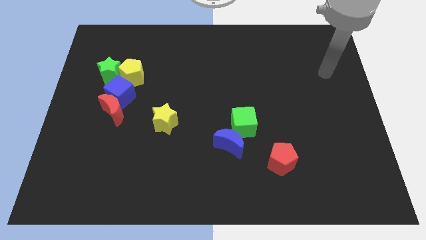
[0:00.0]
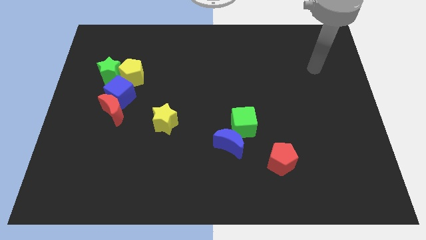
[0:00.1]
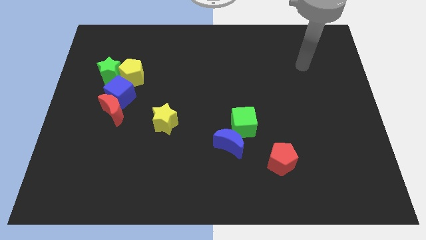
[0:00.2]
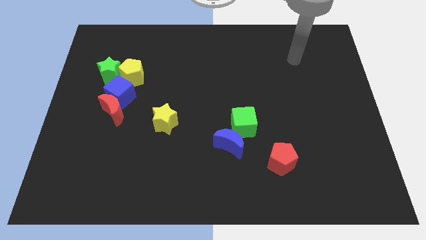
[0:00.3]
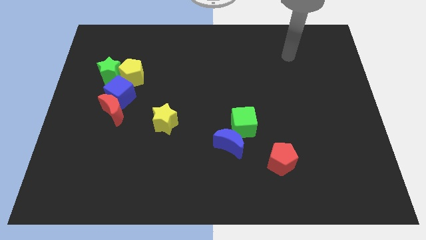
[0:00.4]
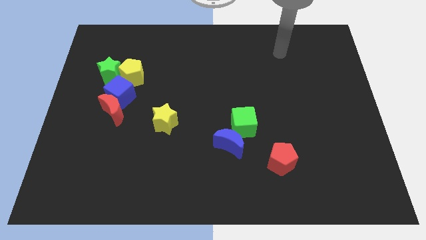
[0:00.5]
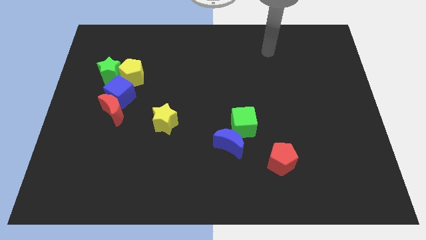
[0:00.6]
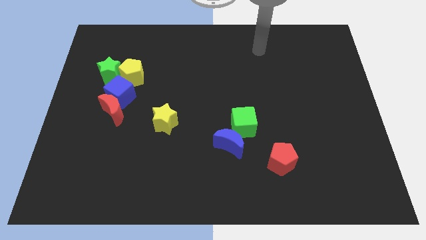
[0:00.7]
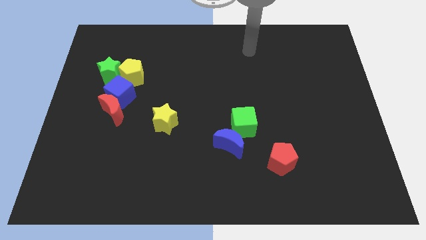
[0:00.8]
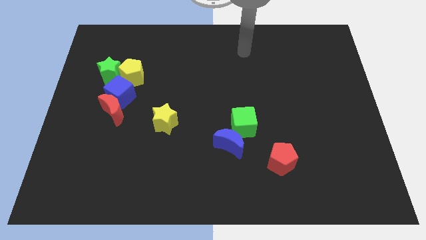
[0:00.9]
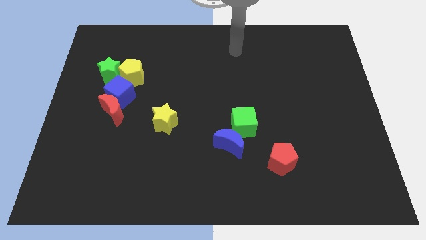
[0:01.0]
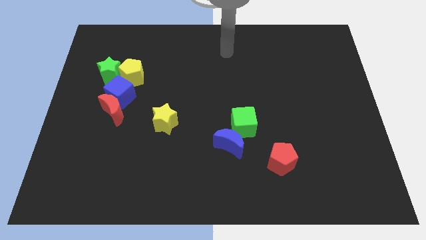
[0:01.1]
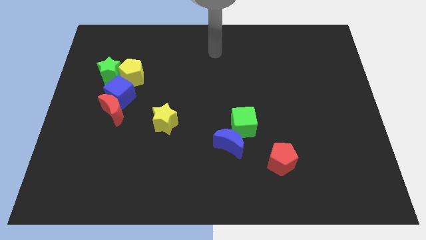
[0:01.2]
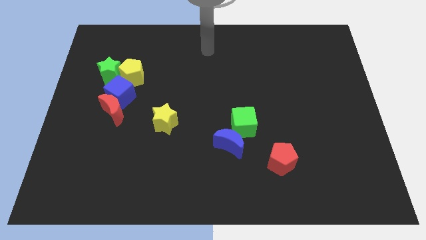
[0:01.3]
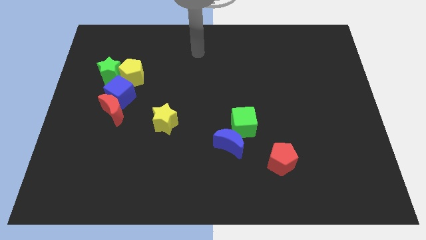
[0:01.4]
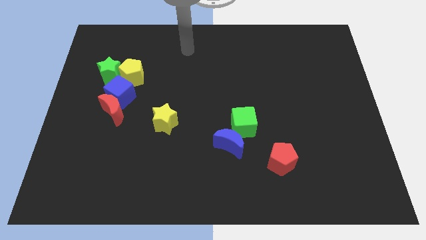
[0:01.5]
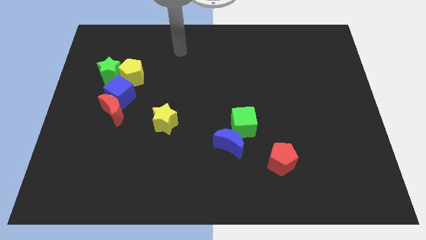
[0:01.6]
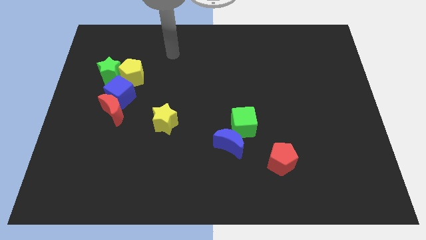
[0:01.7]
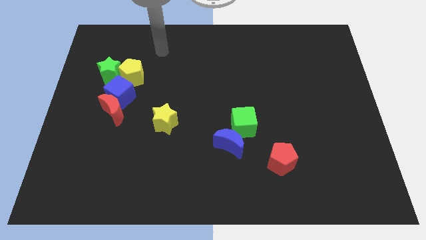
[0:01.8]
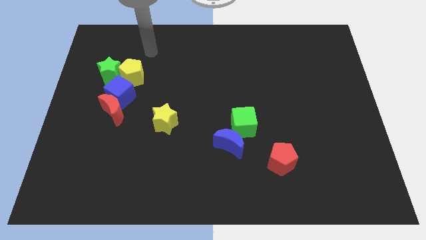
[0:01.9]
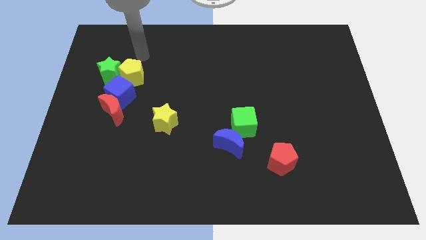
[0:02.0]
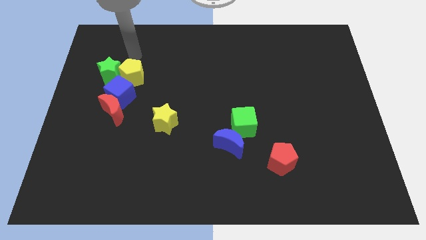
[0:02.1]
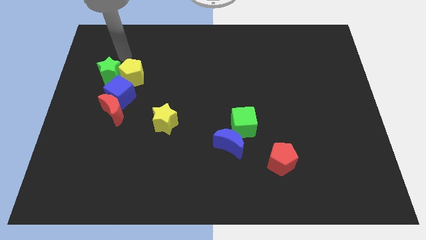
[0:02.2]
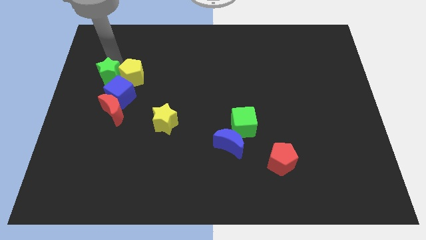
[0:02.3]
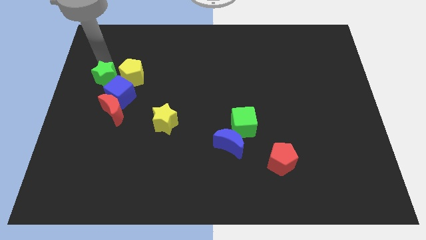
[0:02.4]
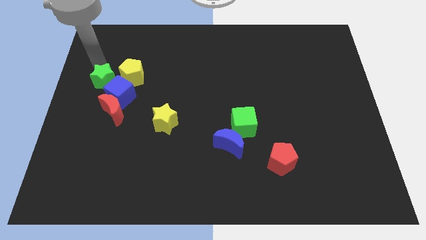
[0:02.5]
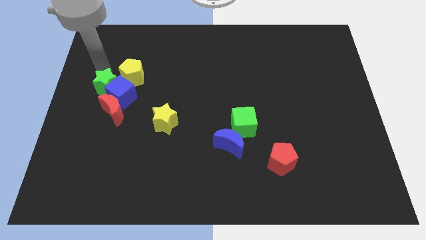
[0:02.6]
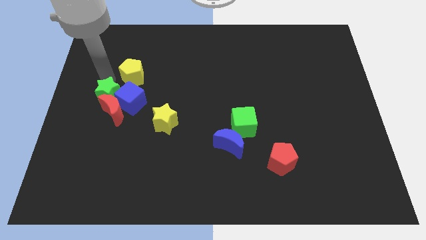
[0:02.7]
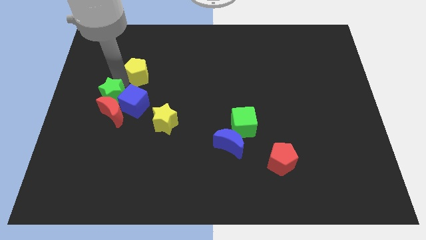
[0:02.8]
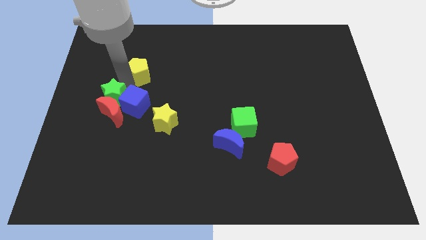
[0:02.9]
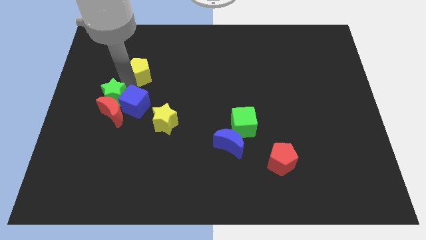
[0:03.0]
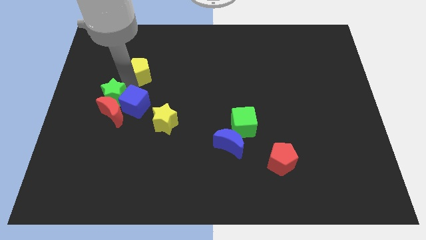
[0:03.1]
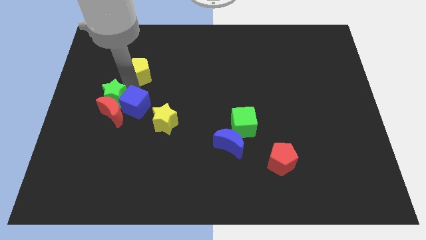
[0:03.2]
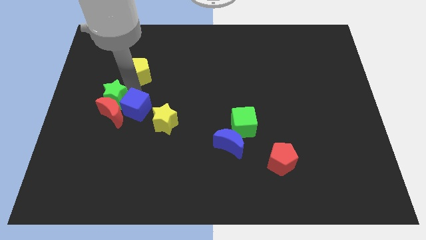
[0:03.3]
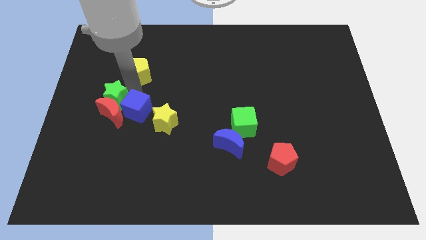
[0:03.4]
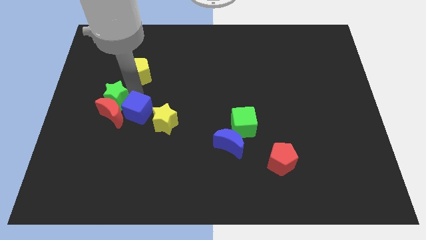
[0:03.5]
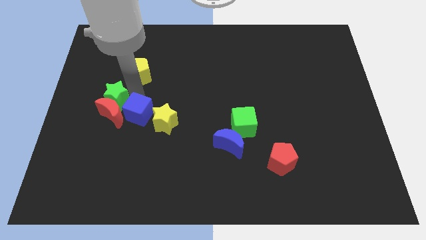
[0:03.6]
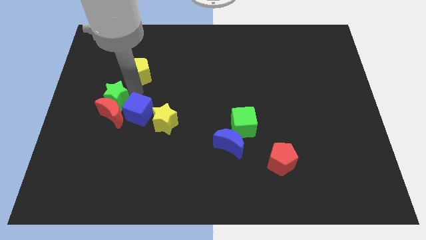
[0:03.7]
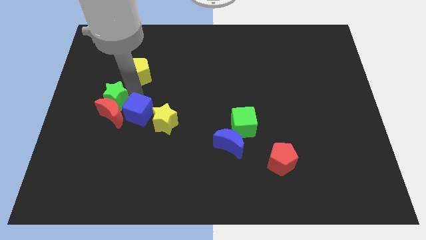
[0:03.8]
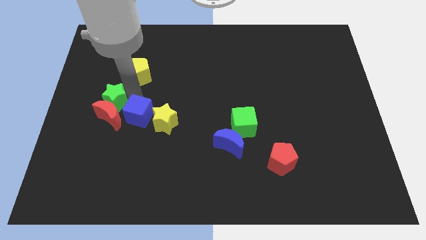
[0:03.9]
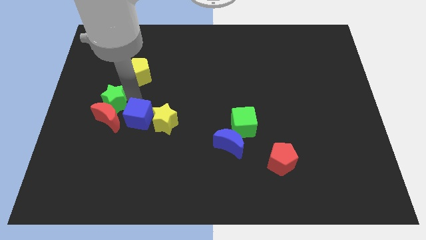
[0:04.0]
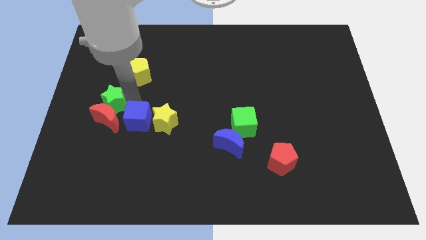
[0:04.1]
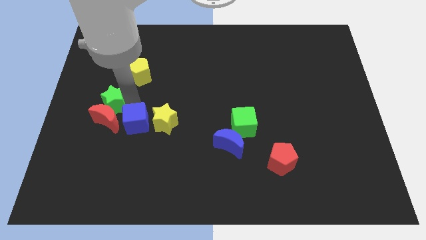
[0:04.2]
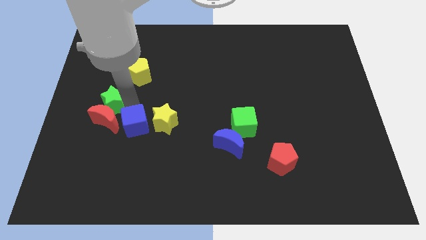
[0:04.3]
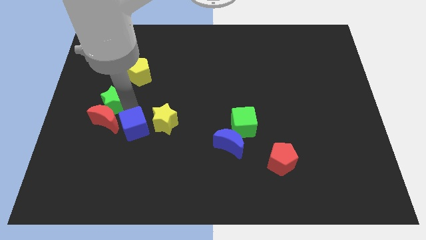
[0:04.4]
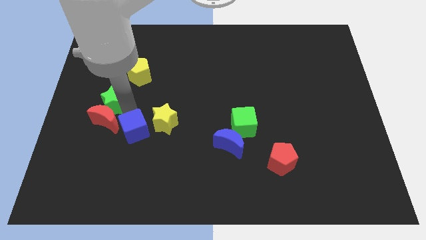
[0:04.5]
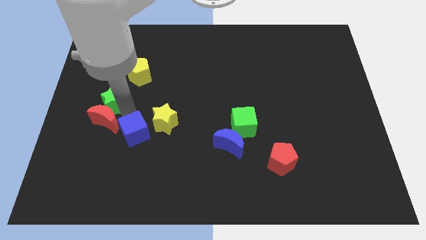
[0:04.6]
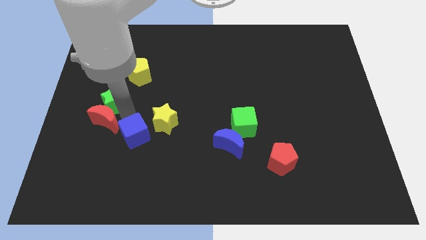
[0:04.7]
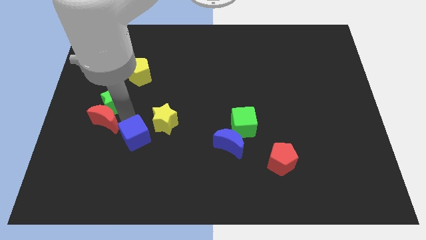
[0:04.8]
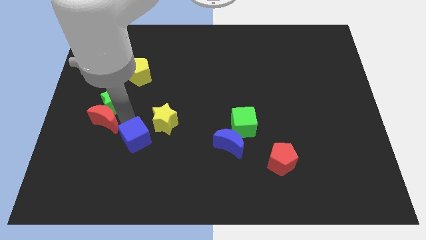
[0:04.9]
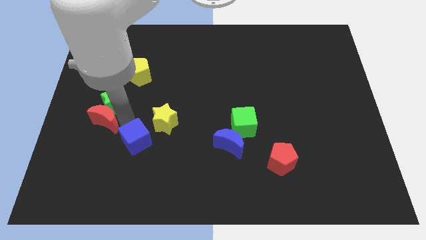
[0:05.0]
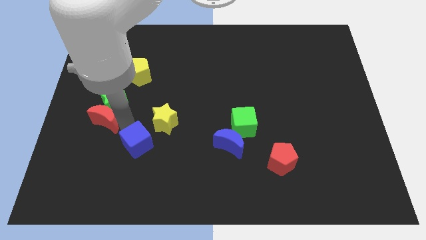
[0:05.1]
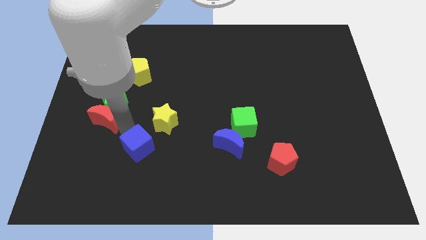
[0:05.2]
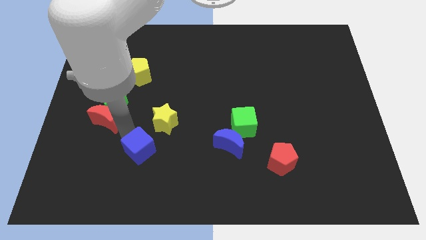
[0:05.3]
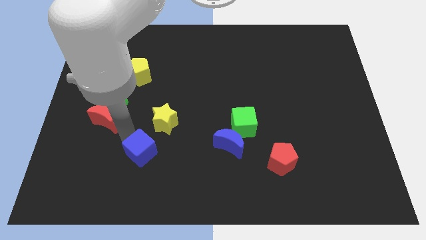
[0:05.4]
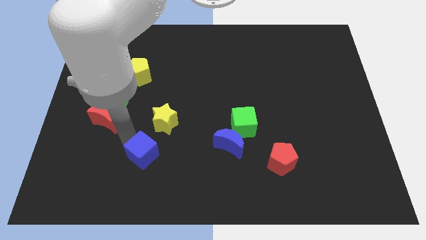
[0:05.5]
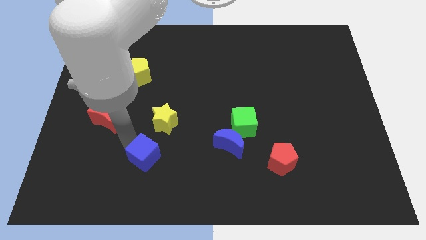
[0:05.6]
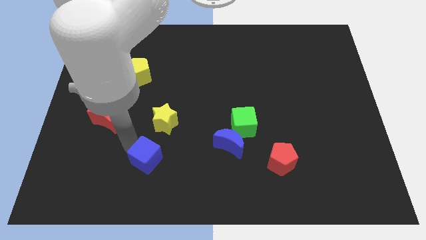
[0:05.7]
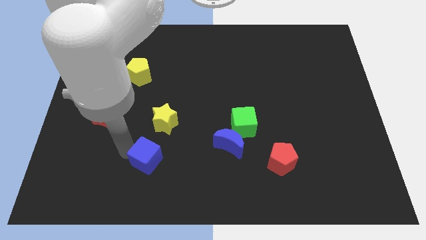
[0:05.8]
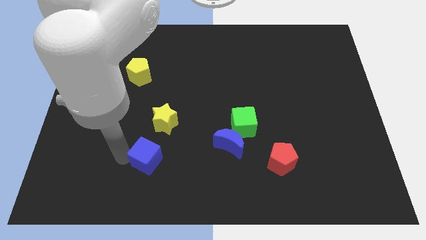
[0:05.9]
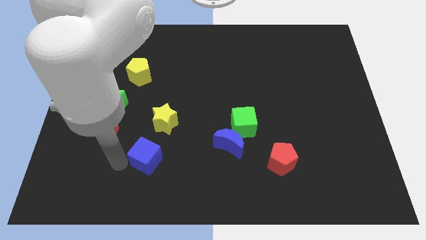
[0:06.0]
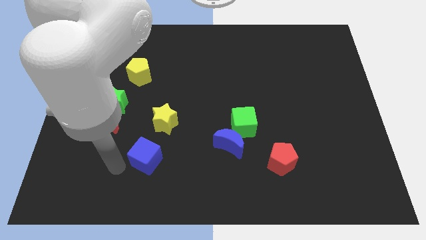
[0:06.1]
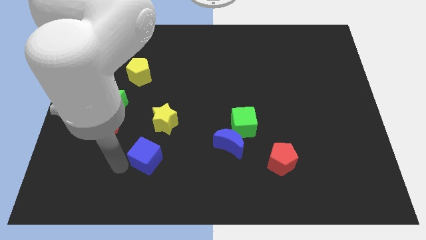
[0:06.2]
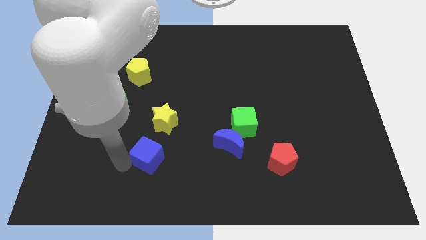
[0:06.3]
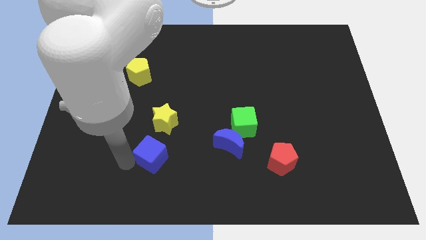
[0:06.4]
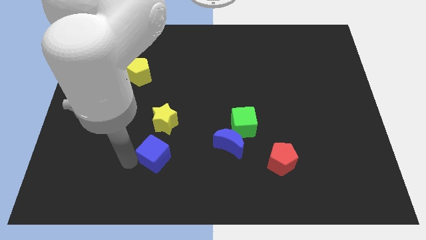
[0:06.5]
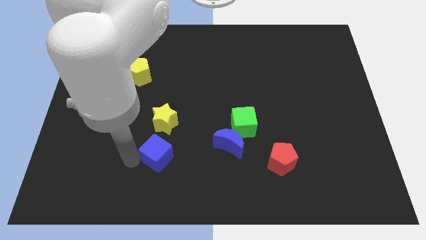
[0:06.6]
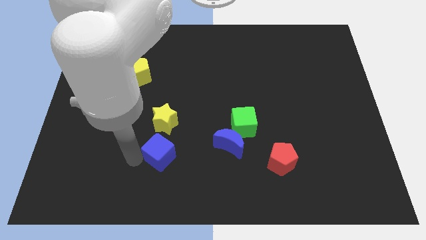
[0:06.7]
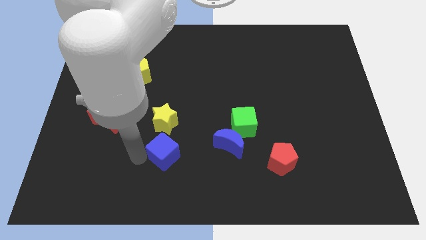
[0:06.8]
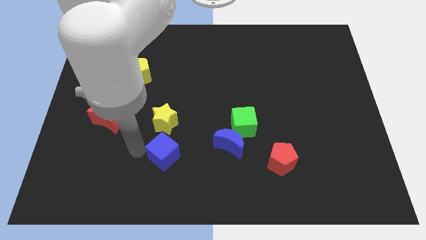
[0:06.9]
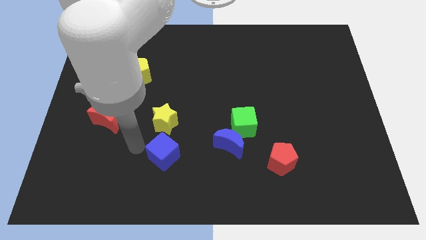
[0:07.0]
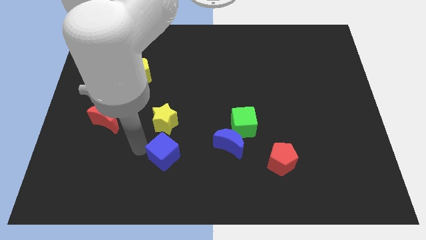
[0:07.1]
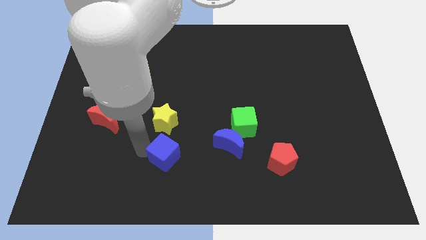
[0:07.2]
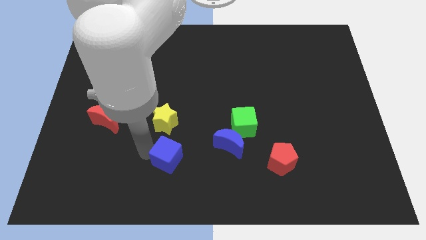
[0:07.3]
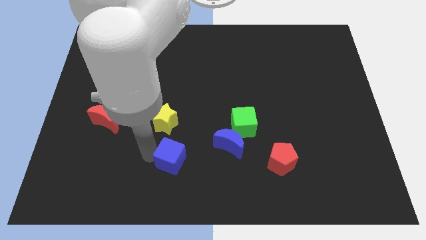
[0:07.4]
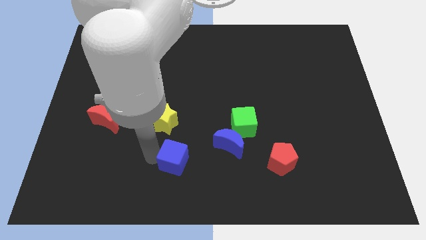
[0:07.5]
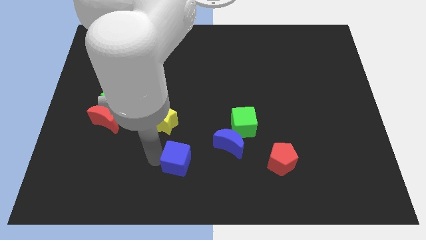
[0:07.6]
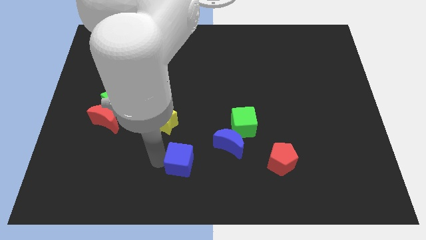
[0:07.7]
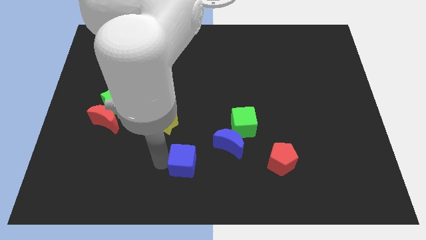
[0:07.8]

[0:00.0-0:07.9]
put the blue cube to the bottom left side of the blue moon
